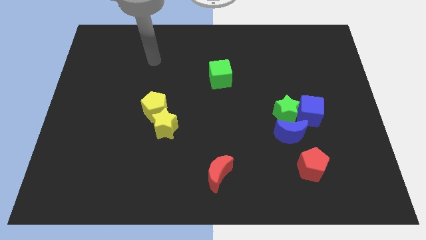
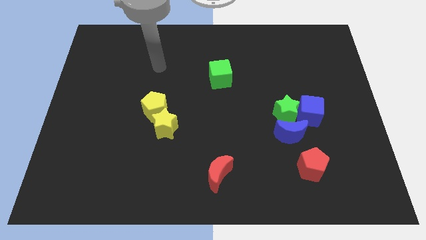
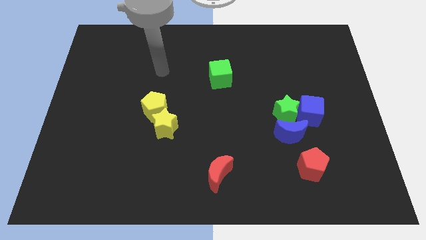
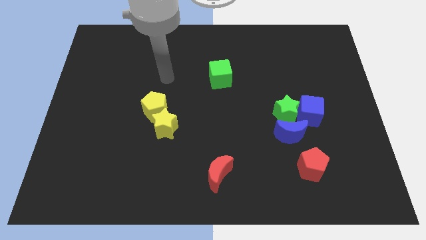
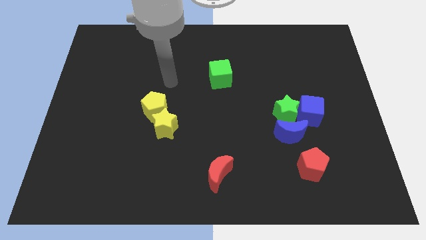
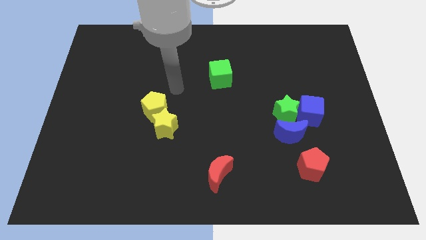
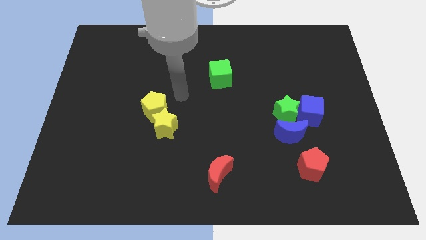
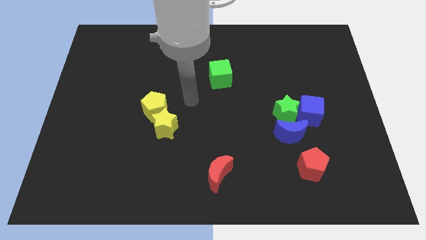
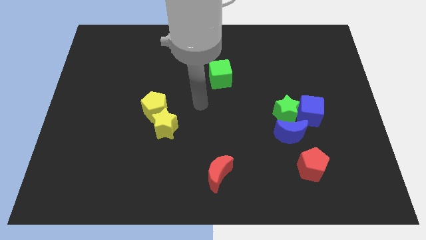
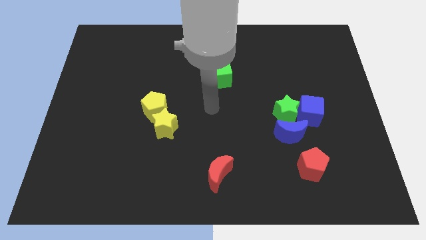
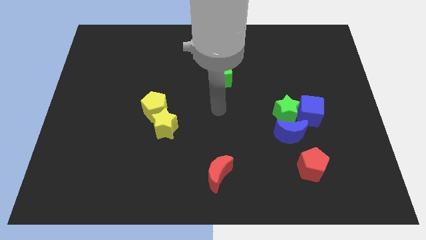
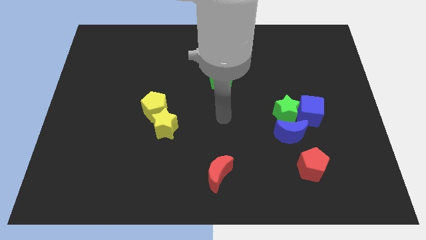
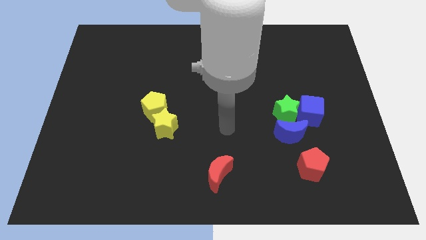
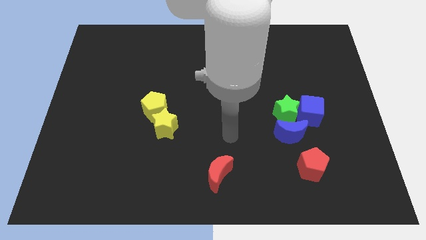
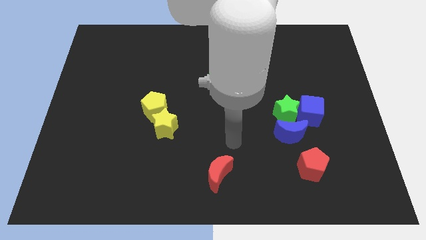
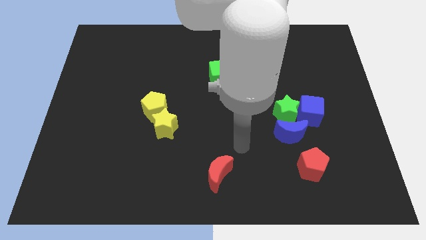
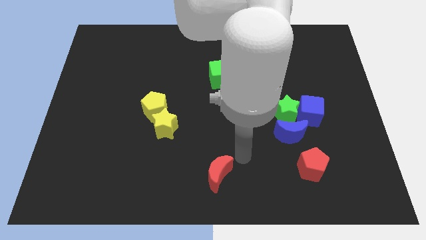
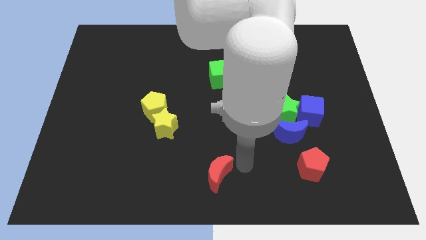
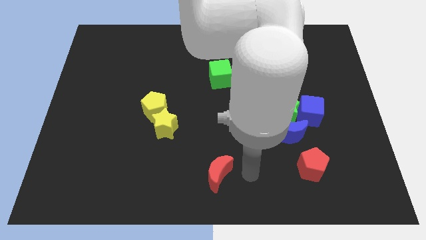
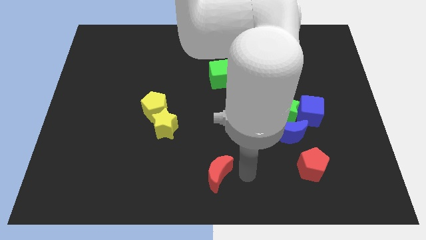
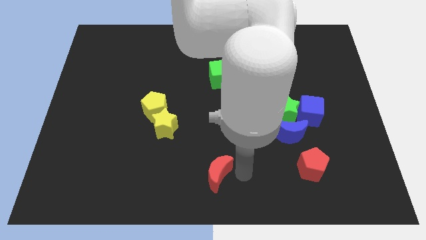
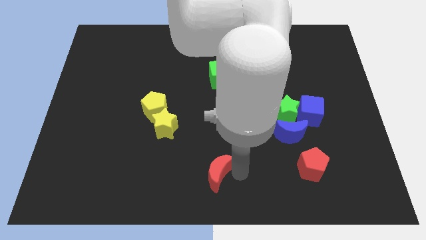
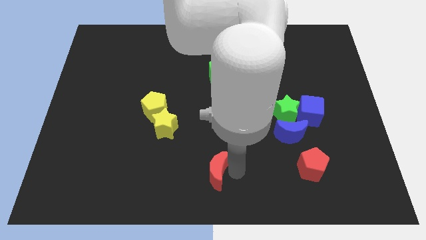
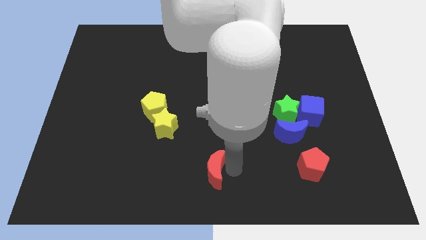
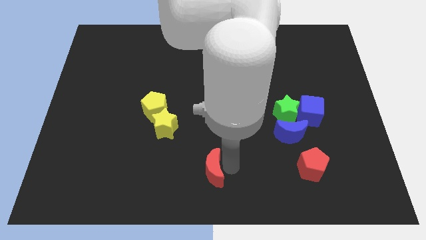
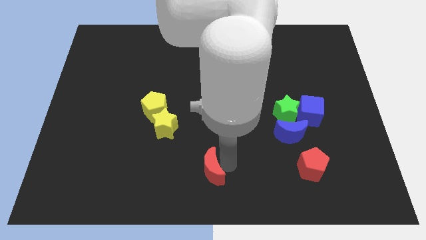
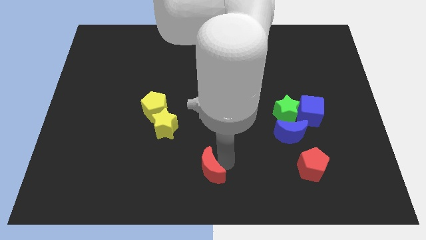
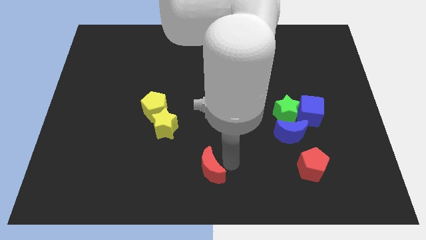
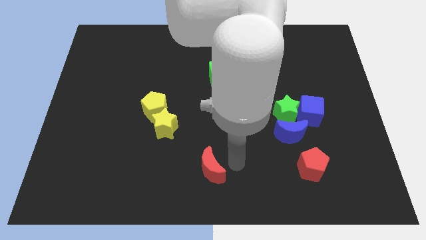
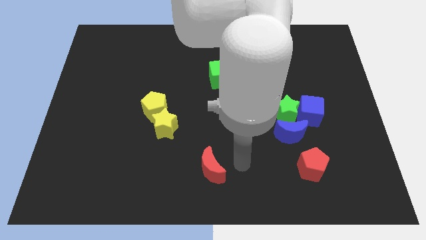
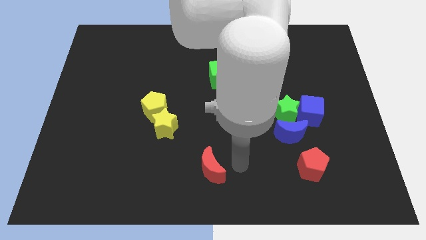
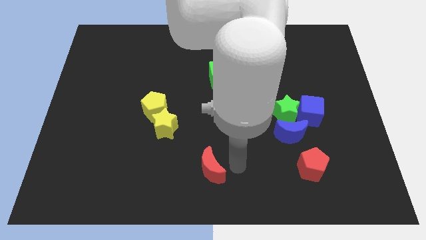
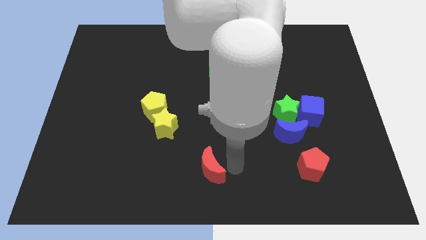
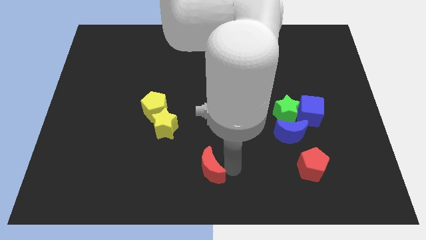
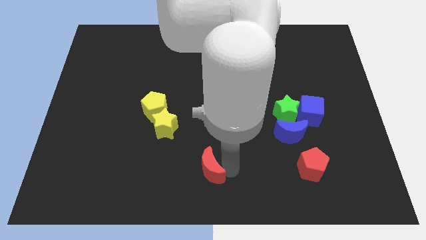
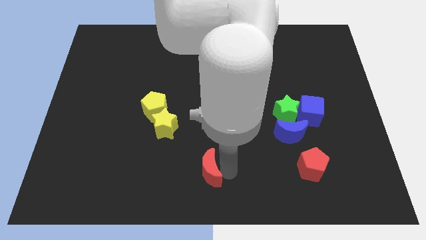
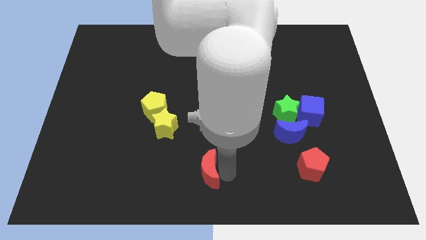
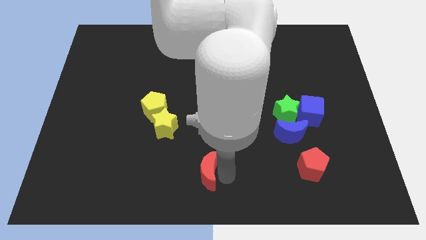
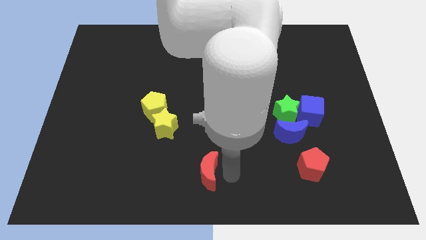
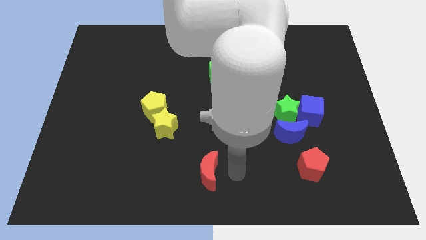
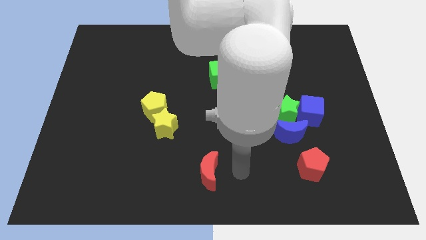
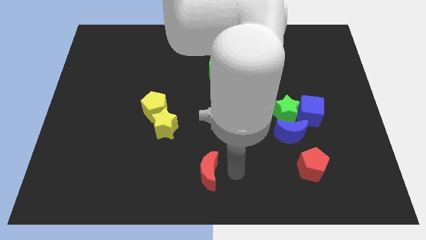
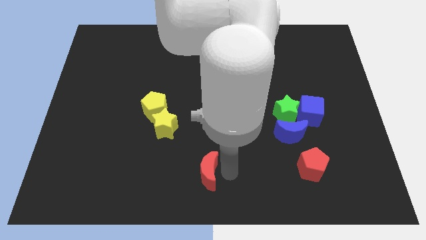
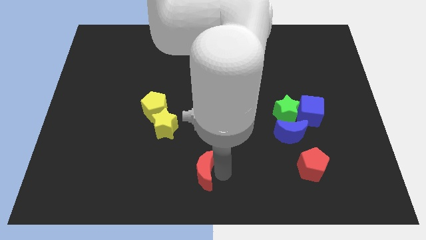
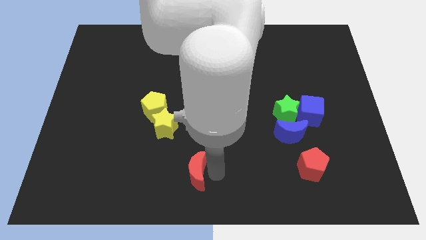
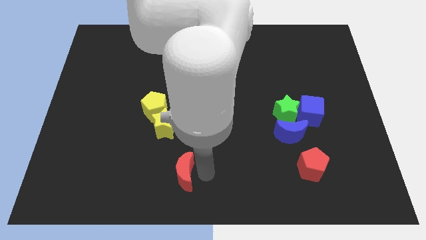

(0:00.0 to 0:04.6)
slightly move the red moon left

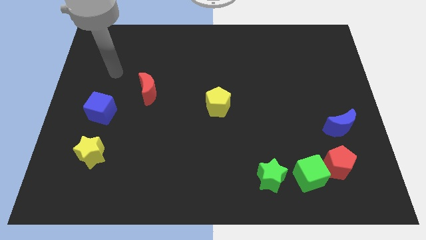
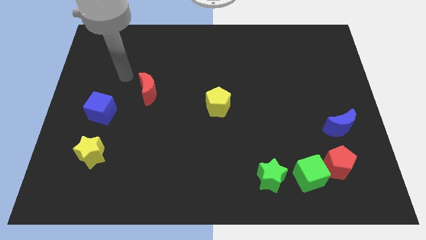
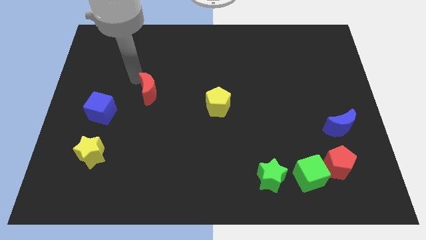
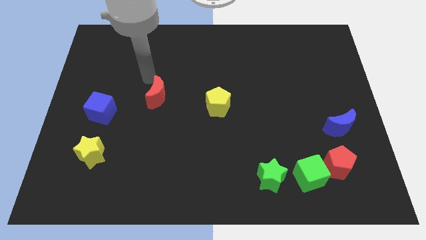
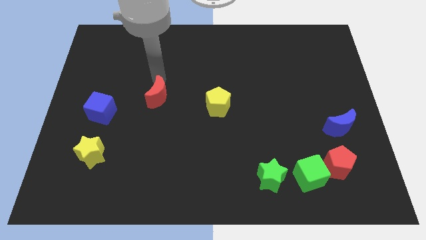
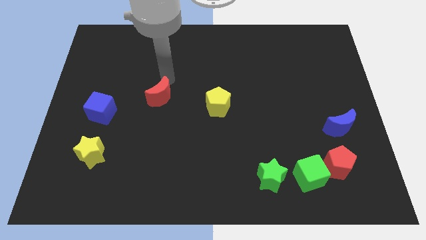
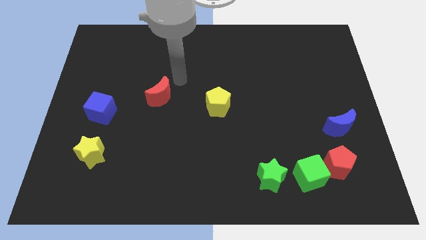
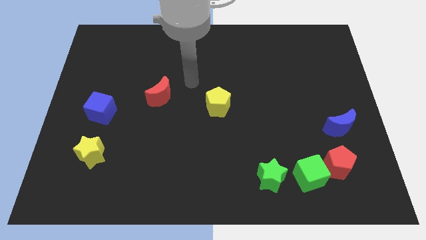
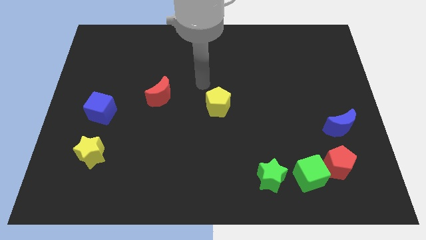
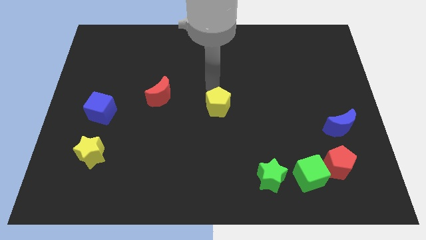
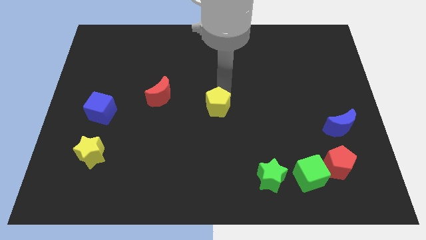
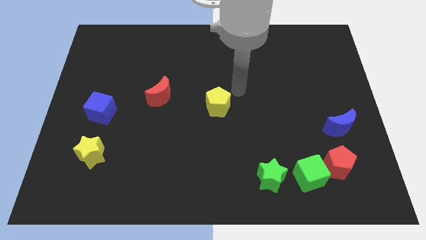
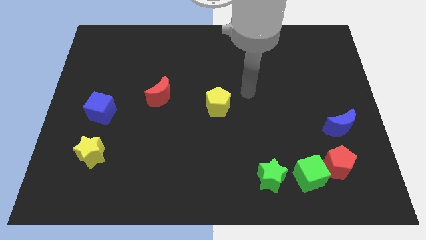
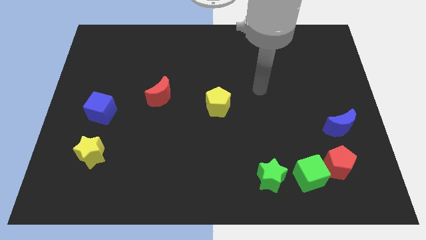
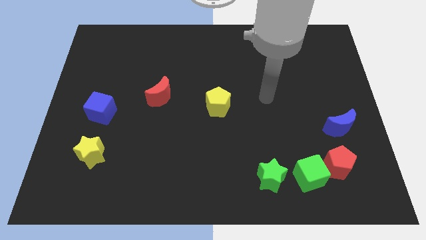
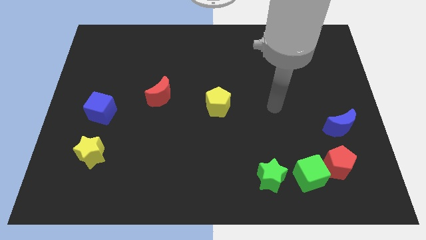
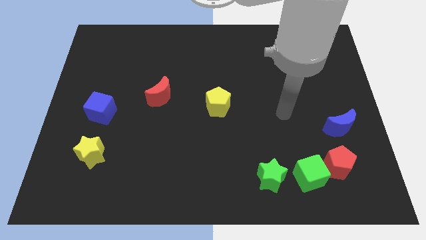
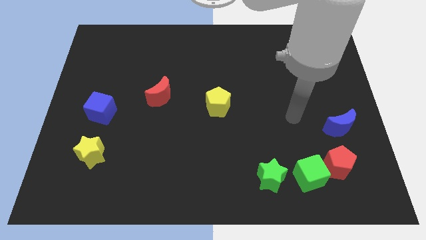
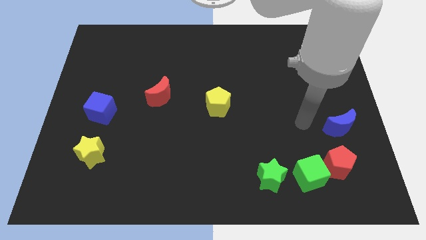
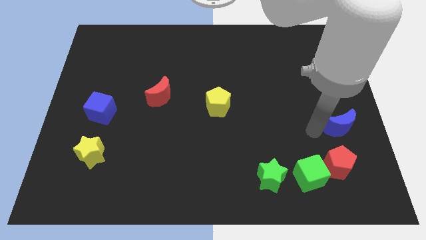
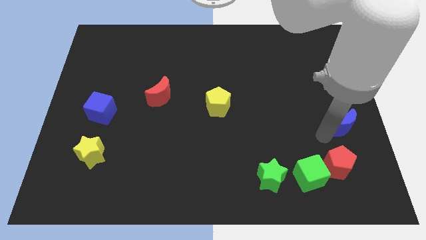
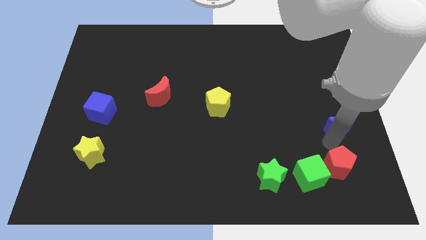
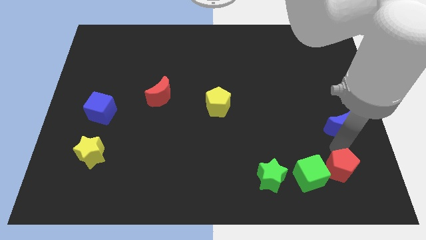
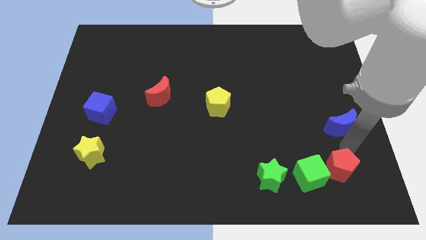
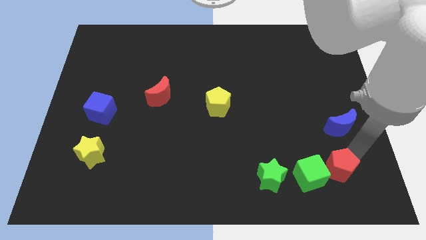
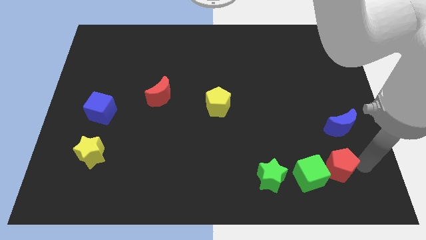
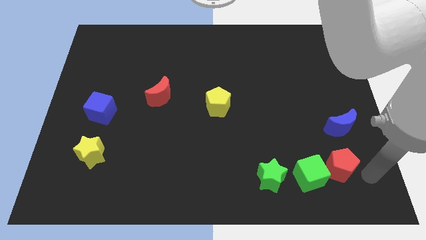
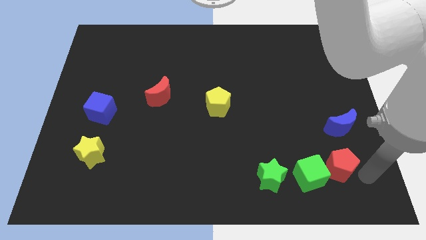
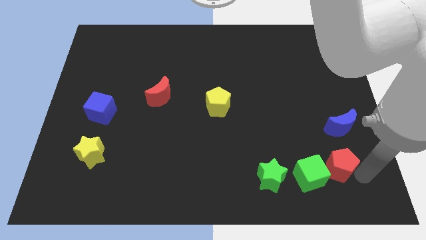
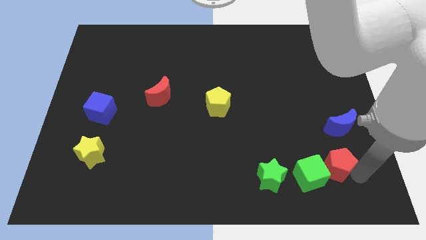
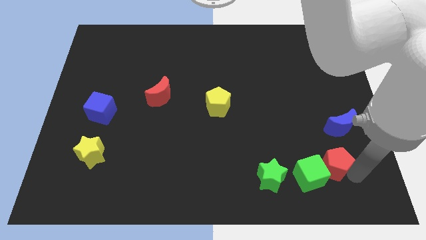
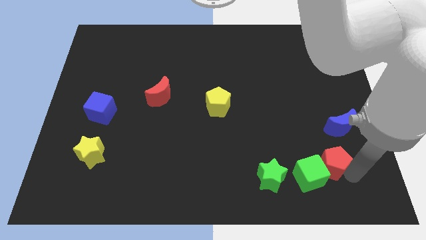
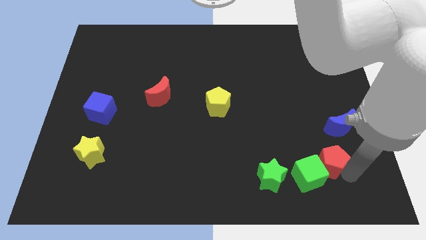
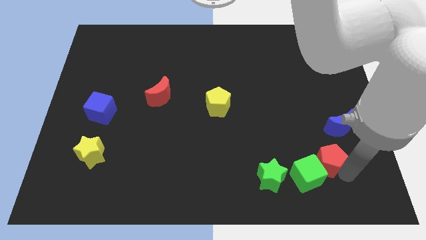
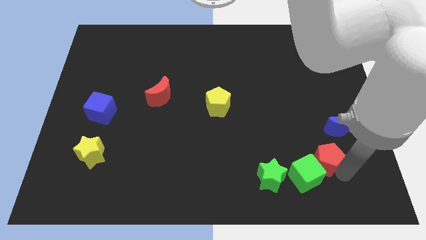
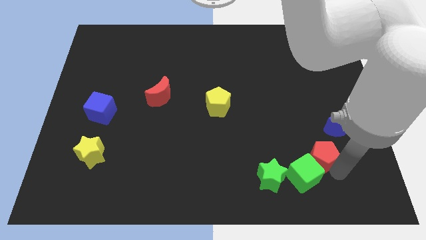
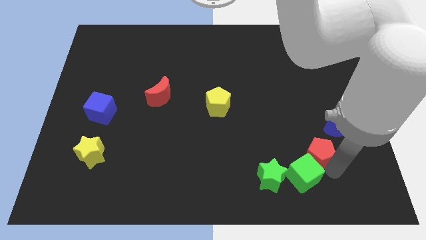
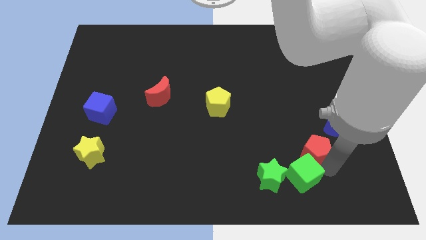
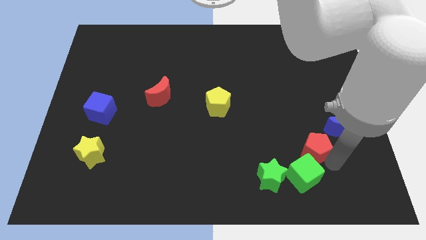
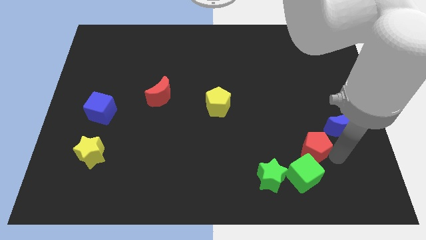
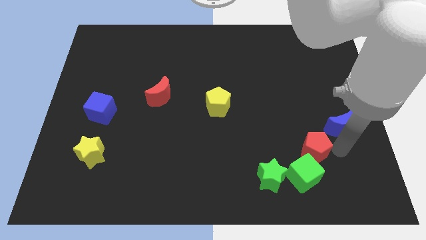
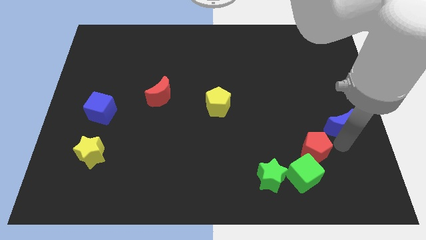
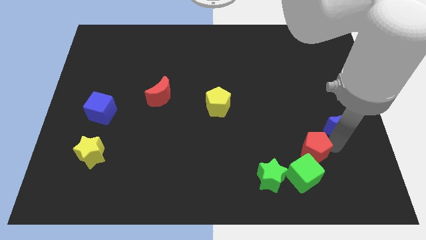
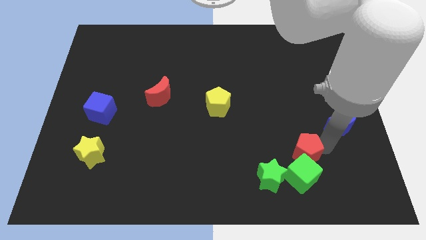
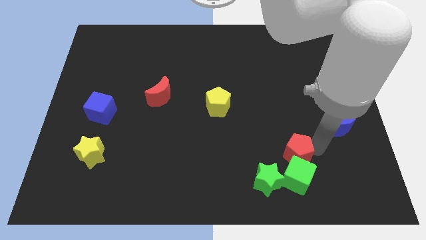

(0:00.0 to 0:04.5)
move the red pentagon left a little bit
